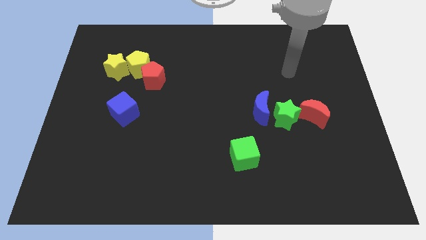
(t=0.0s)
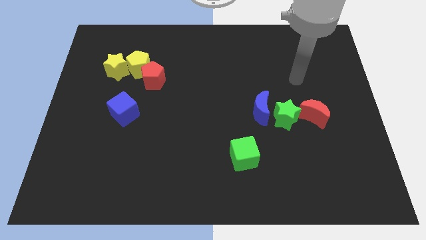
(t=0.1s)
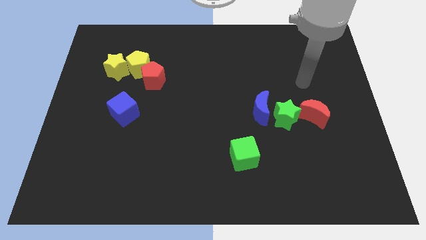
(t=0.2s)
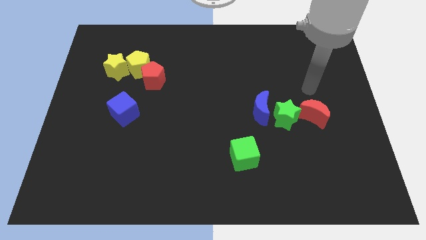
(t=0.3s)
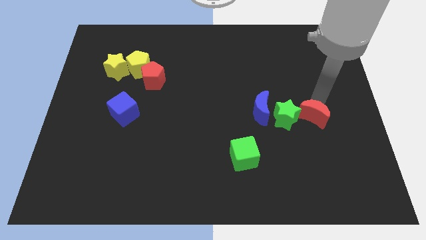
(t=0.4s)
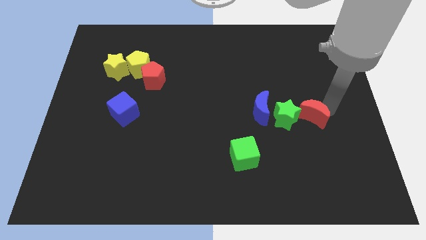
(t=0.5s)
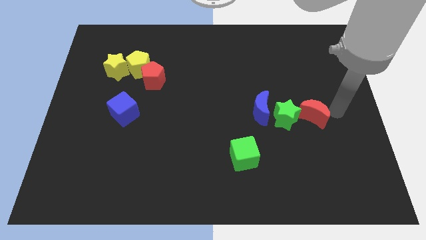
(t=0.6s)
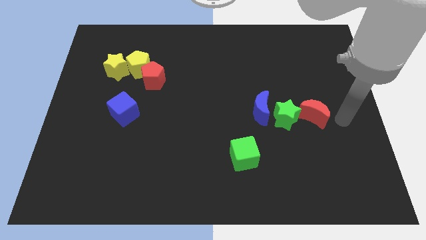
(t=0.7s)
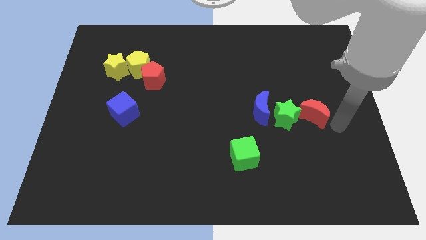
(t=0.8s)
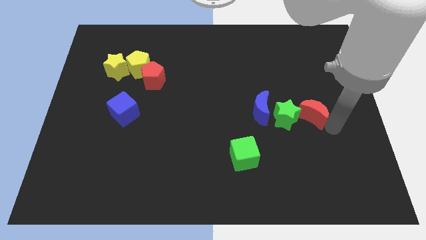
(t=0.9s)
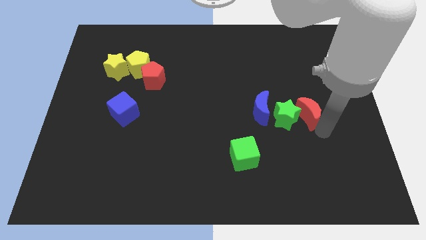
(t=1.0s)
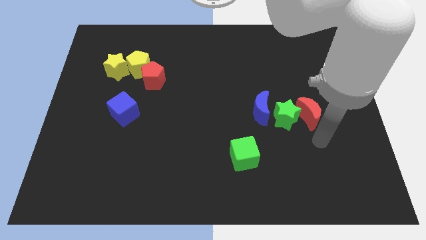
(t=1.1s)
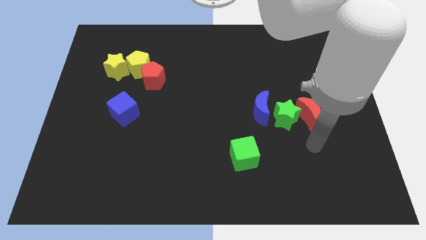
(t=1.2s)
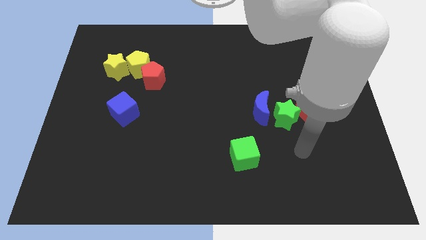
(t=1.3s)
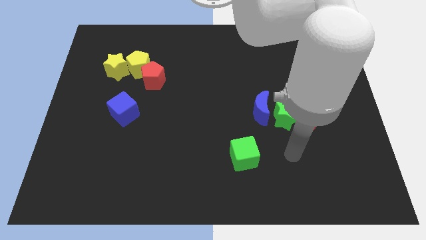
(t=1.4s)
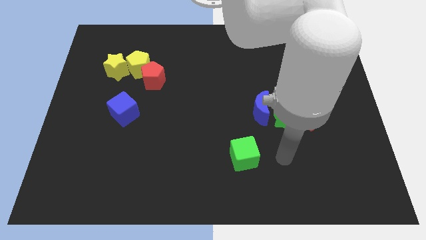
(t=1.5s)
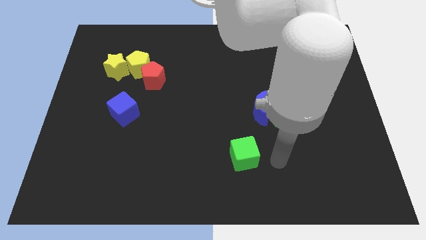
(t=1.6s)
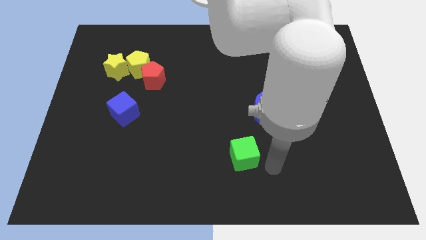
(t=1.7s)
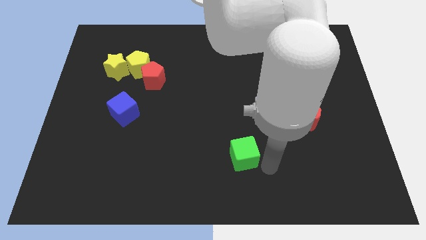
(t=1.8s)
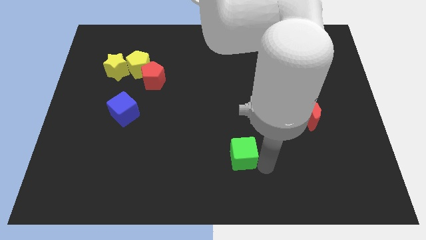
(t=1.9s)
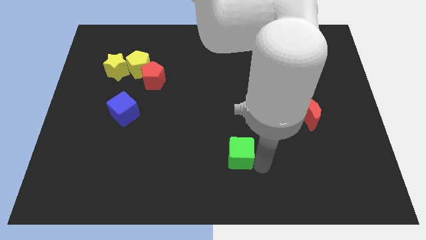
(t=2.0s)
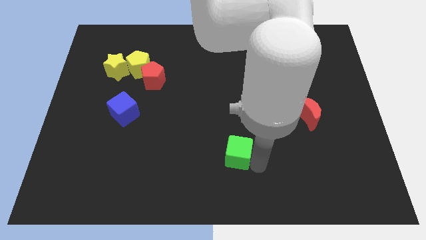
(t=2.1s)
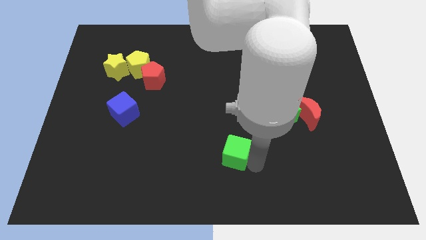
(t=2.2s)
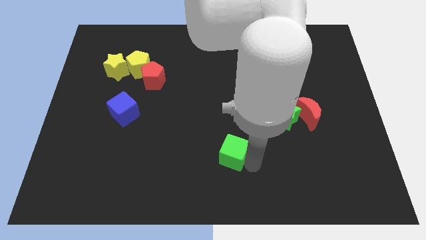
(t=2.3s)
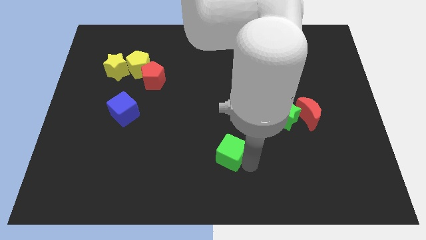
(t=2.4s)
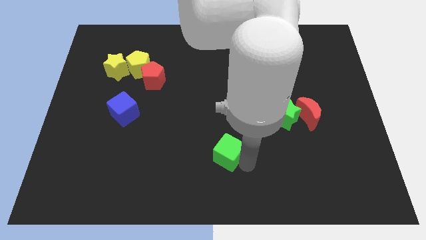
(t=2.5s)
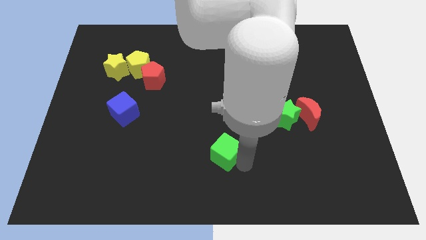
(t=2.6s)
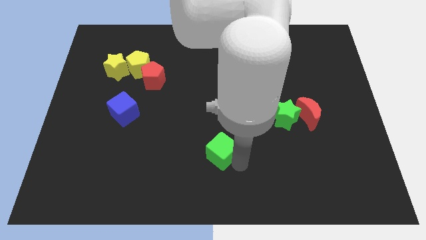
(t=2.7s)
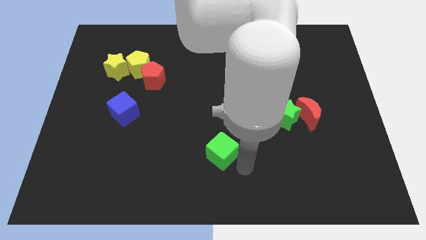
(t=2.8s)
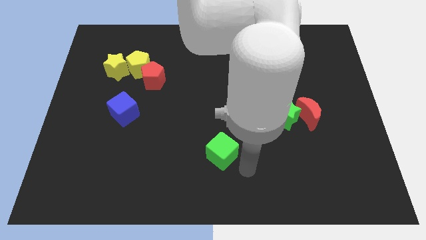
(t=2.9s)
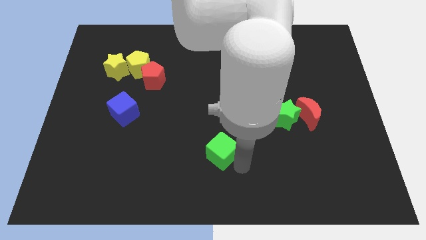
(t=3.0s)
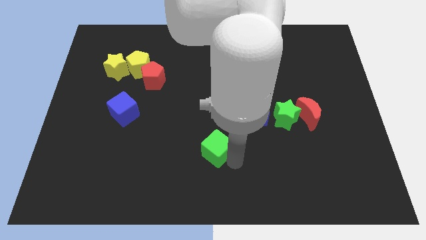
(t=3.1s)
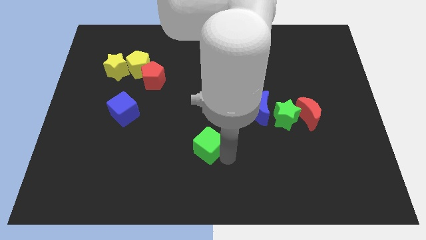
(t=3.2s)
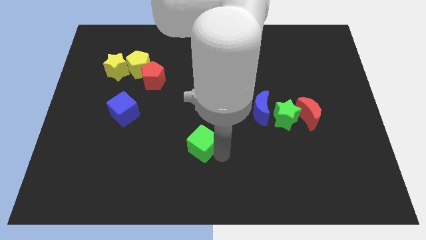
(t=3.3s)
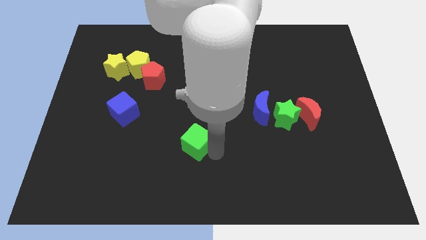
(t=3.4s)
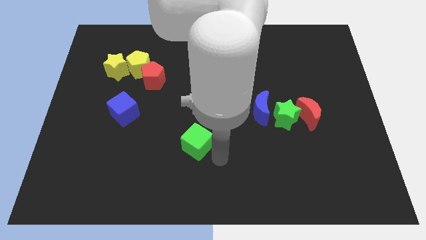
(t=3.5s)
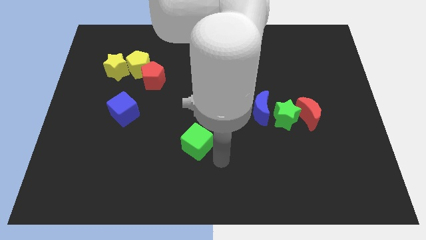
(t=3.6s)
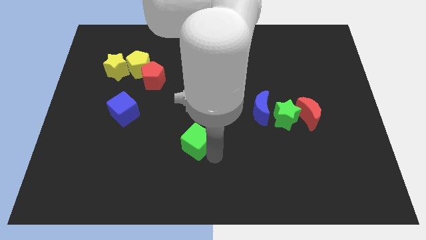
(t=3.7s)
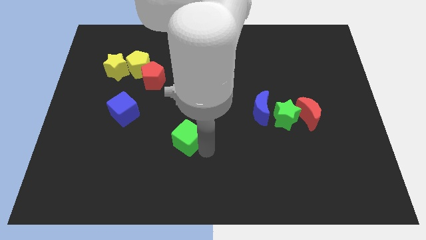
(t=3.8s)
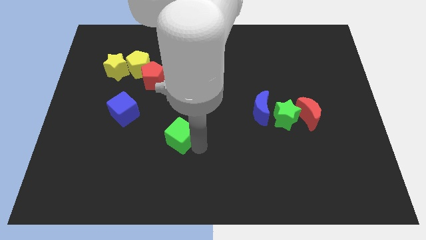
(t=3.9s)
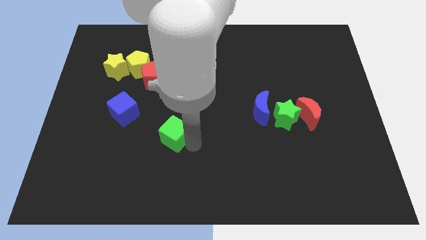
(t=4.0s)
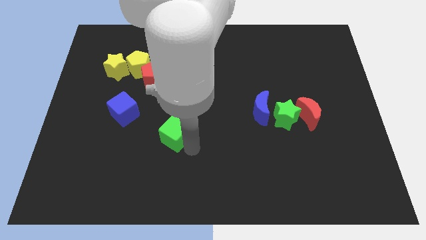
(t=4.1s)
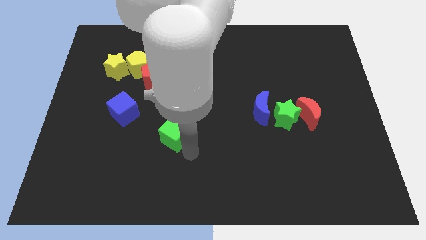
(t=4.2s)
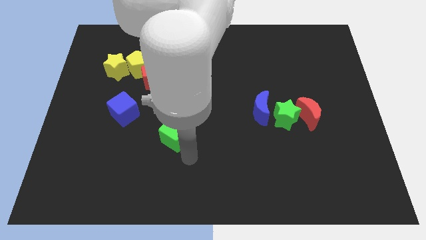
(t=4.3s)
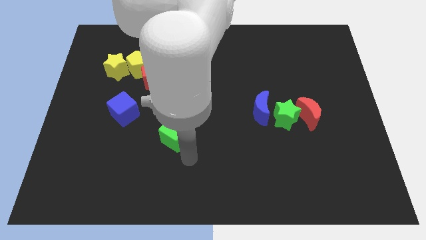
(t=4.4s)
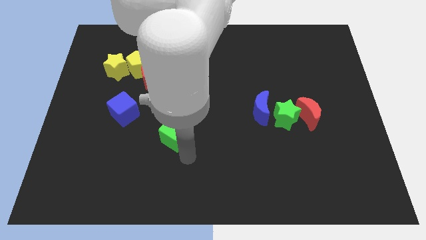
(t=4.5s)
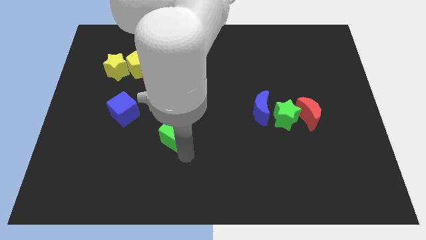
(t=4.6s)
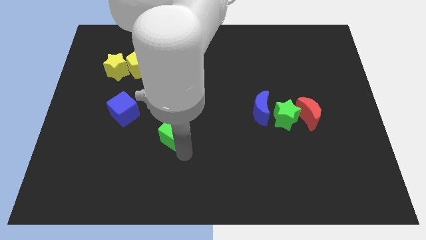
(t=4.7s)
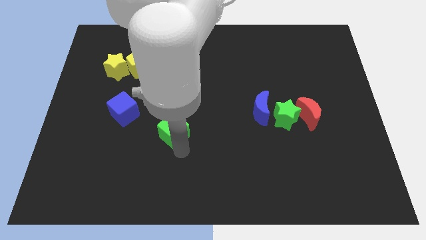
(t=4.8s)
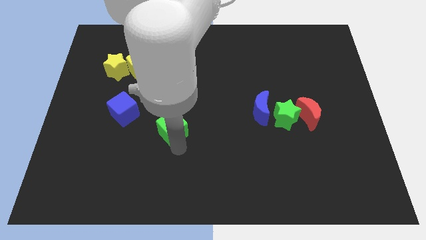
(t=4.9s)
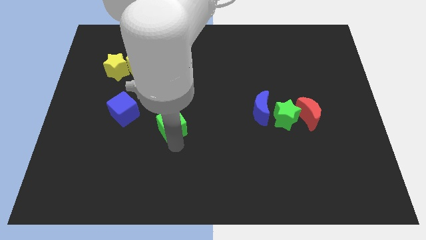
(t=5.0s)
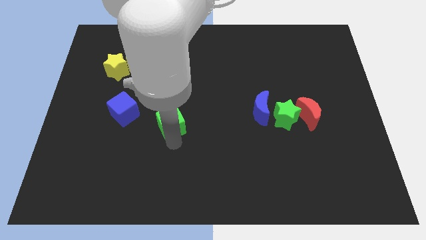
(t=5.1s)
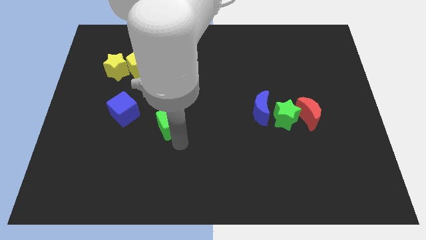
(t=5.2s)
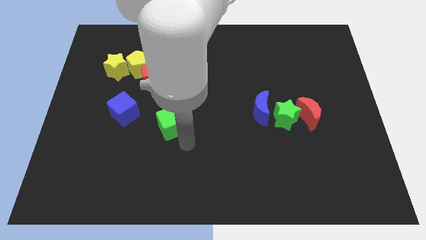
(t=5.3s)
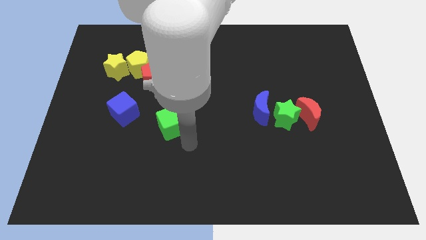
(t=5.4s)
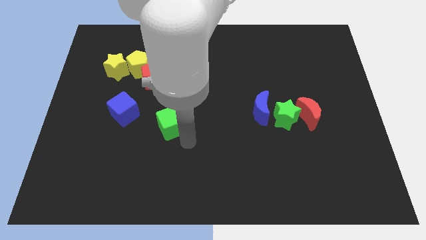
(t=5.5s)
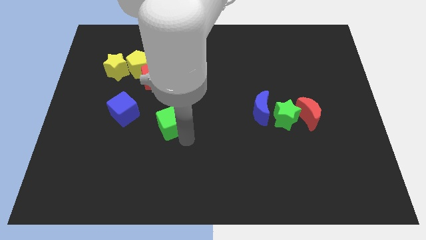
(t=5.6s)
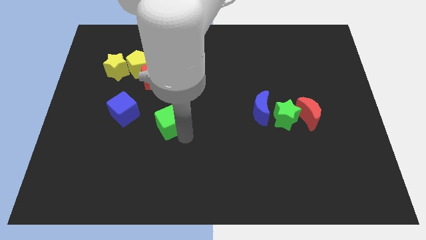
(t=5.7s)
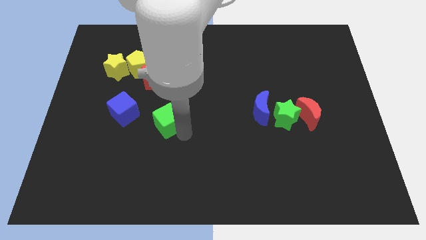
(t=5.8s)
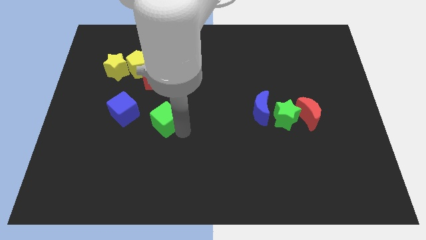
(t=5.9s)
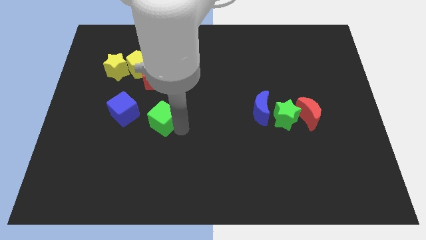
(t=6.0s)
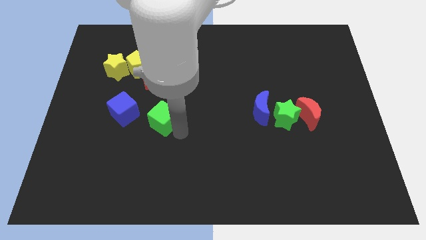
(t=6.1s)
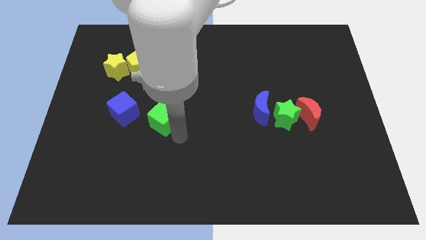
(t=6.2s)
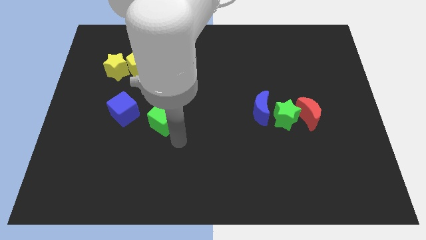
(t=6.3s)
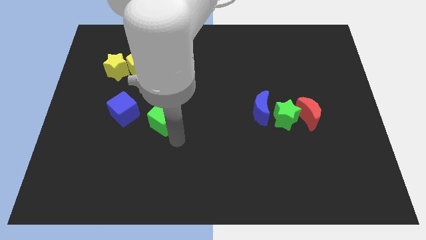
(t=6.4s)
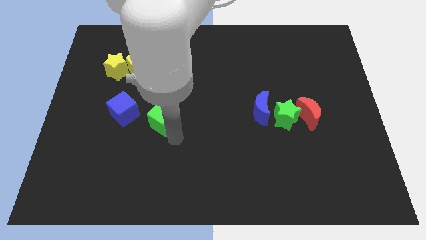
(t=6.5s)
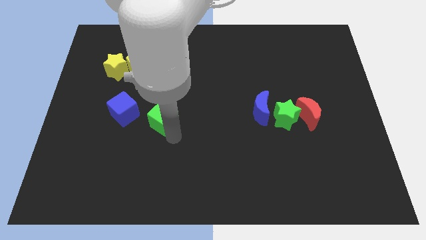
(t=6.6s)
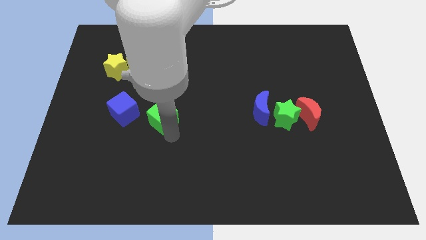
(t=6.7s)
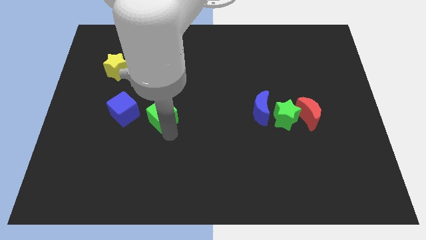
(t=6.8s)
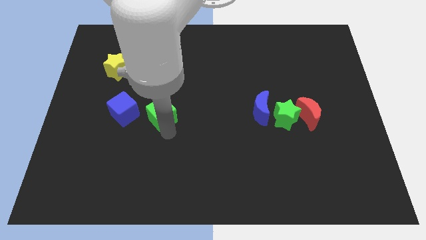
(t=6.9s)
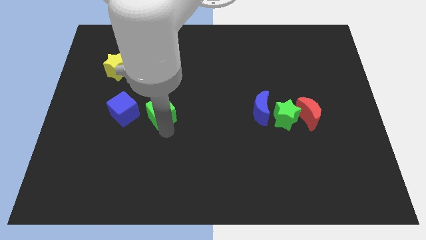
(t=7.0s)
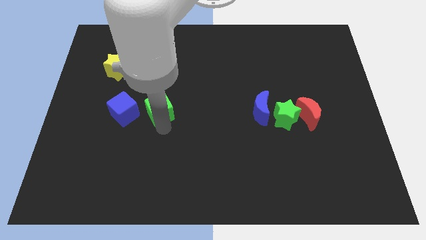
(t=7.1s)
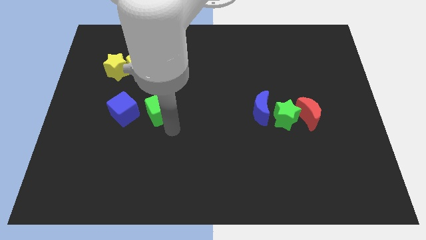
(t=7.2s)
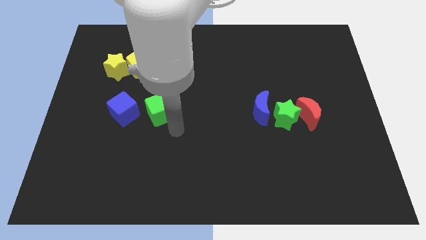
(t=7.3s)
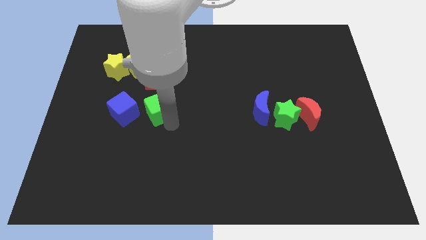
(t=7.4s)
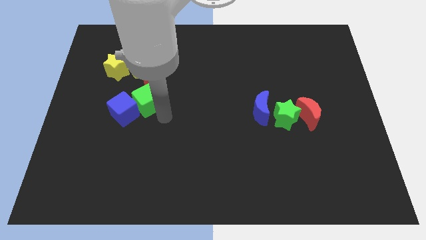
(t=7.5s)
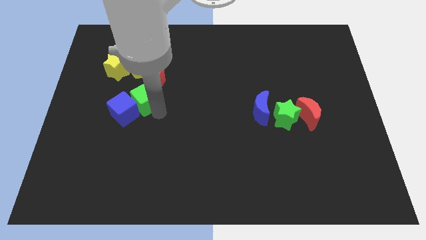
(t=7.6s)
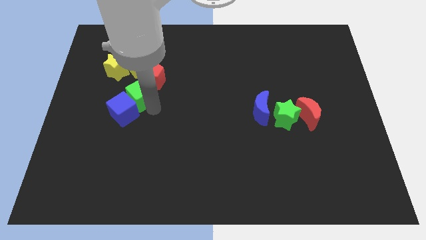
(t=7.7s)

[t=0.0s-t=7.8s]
push the green cube diagonally down and to the right of the yellow star

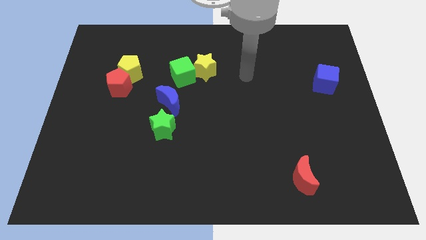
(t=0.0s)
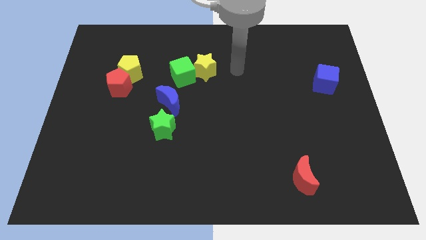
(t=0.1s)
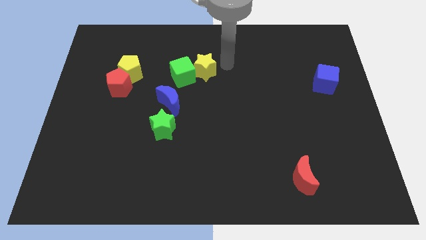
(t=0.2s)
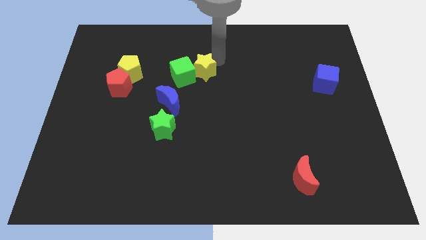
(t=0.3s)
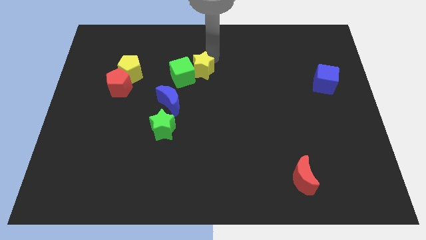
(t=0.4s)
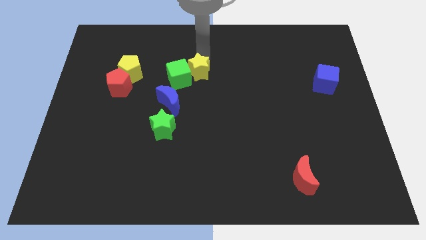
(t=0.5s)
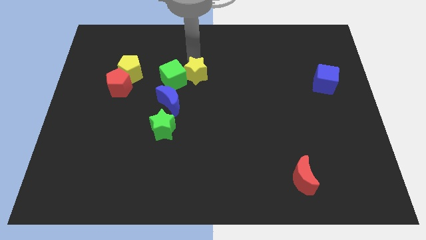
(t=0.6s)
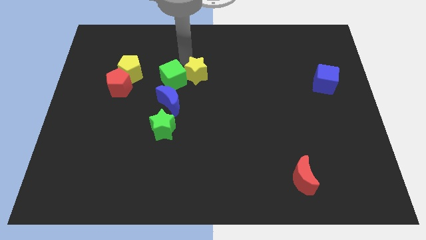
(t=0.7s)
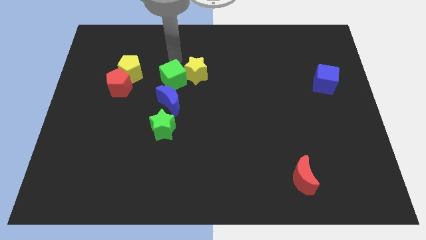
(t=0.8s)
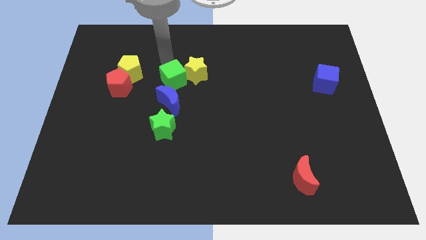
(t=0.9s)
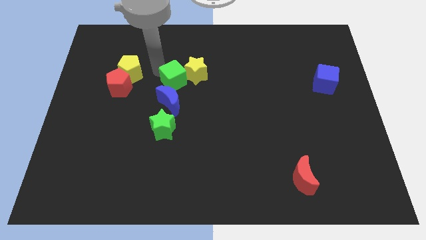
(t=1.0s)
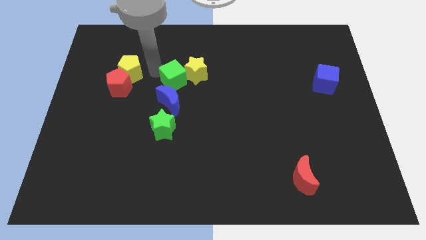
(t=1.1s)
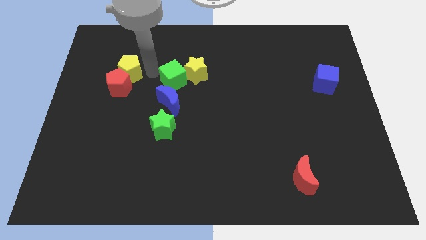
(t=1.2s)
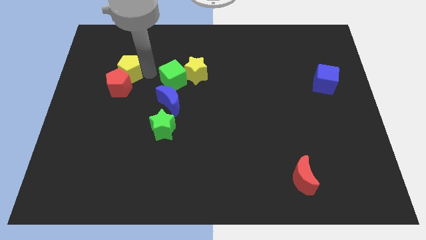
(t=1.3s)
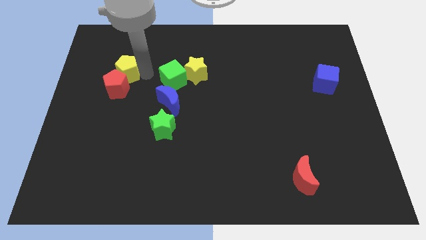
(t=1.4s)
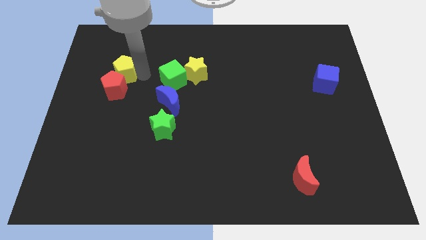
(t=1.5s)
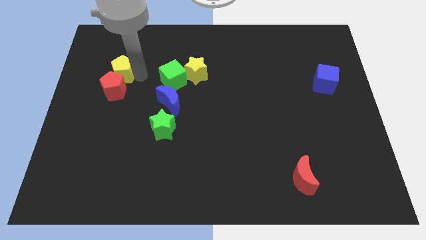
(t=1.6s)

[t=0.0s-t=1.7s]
move the yellow pentagon to the top left side of the red pentagon
